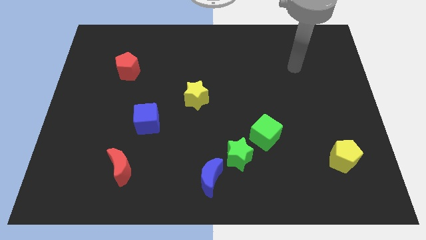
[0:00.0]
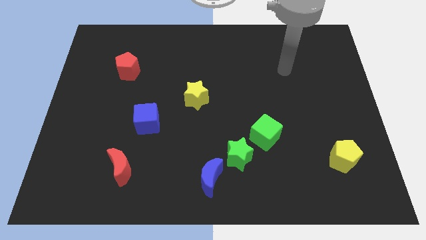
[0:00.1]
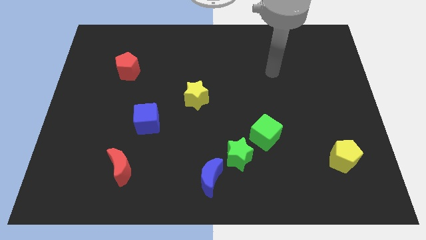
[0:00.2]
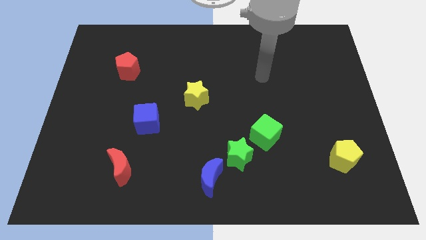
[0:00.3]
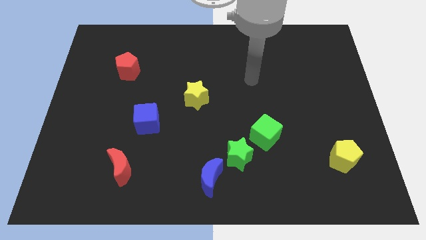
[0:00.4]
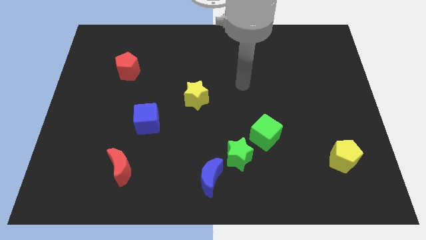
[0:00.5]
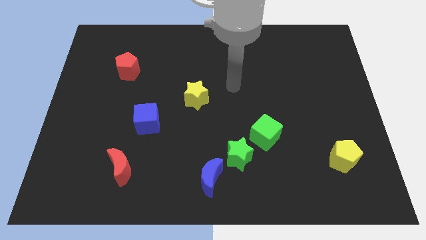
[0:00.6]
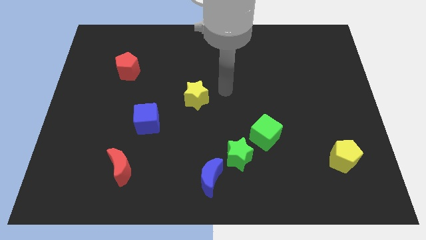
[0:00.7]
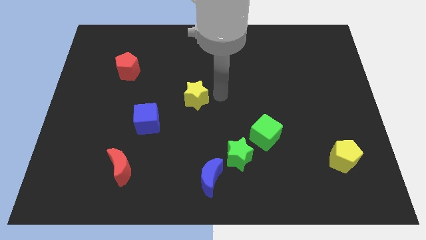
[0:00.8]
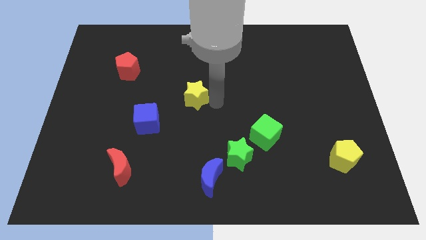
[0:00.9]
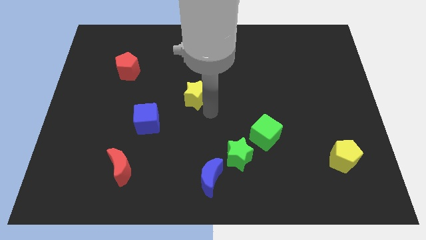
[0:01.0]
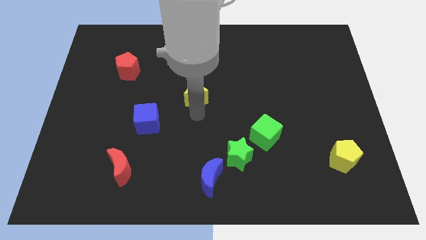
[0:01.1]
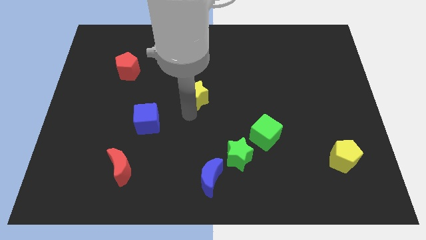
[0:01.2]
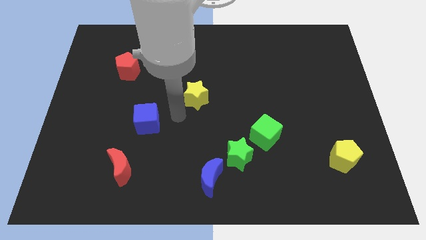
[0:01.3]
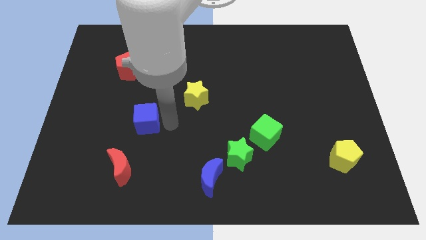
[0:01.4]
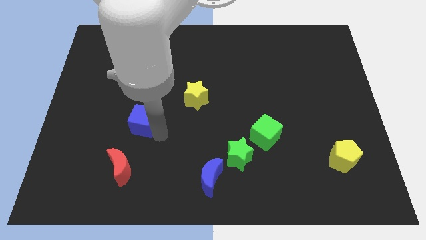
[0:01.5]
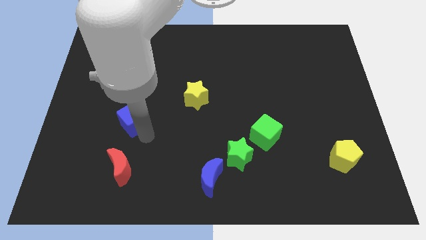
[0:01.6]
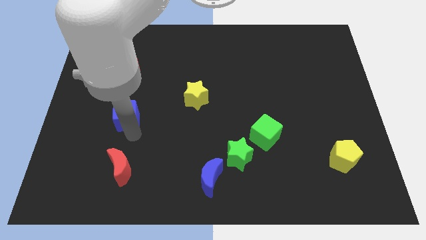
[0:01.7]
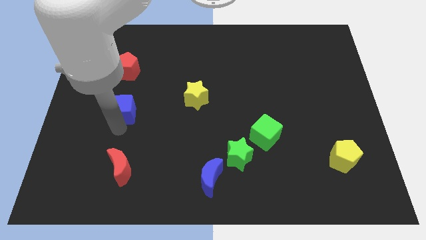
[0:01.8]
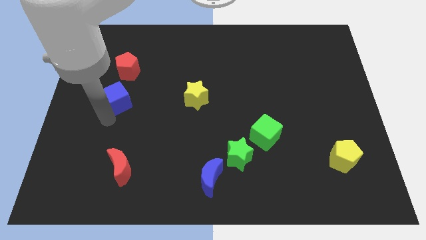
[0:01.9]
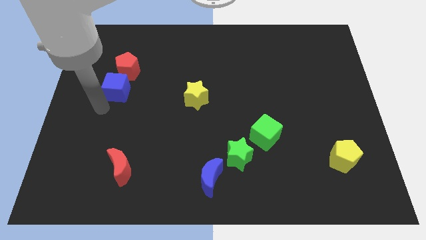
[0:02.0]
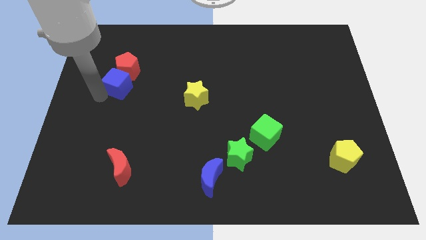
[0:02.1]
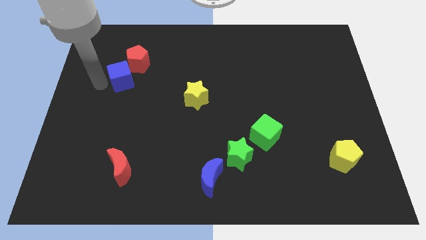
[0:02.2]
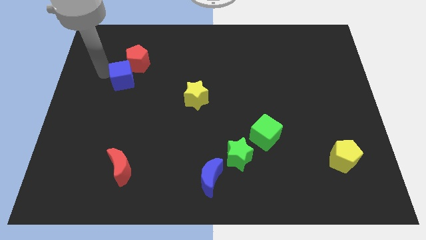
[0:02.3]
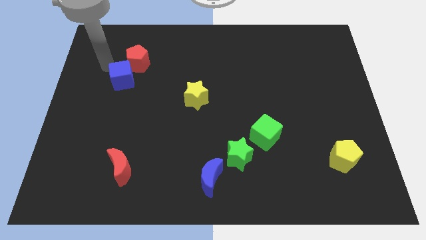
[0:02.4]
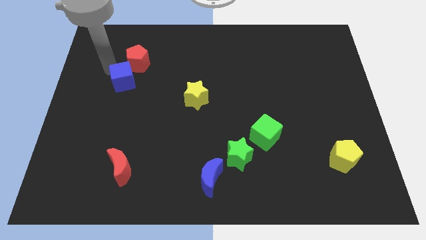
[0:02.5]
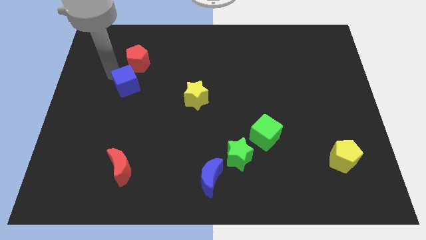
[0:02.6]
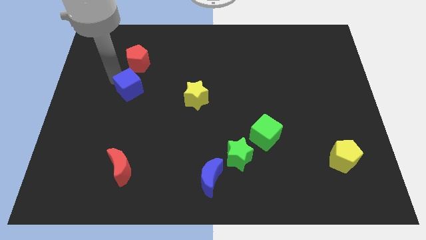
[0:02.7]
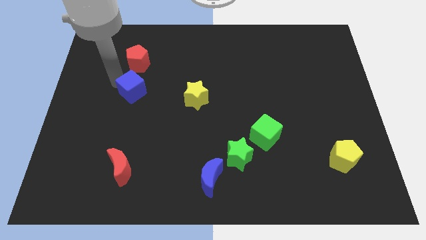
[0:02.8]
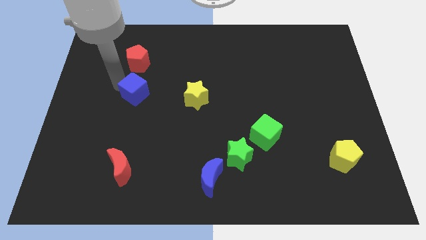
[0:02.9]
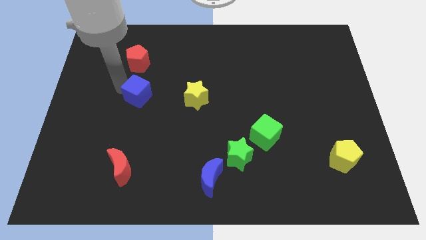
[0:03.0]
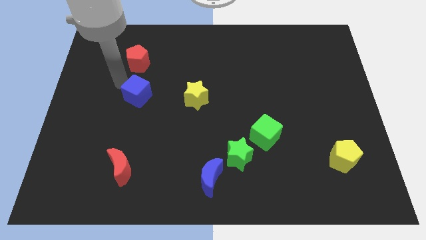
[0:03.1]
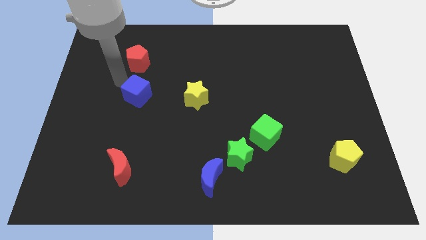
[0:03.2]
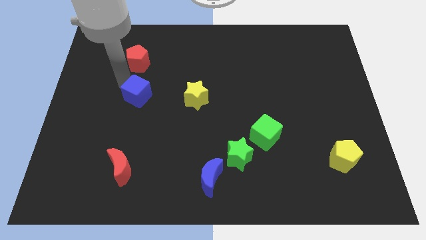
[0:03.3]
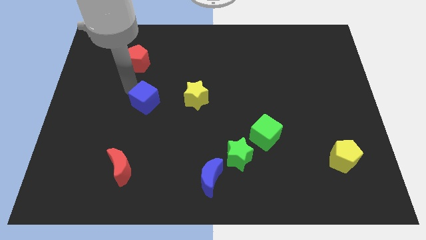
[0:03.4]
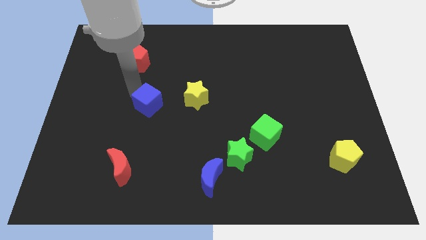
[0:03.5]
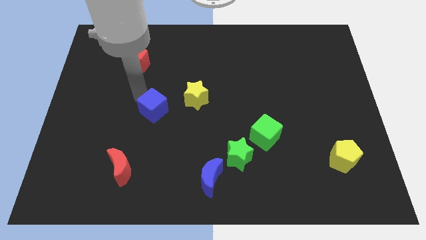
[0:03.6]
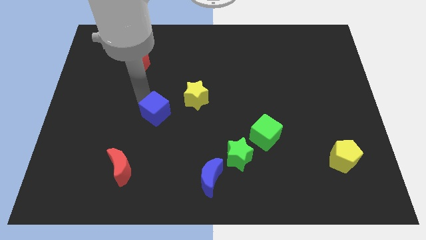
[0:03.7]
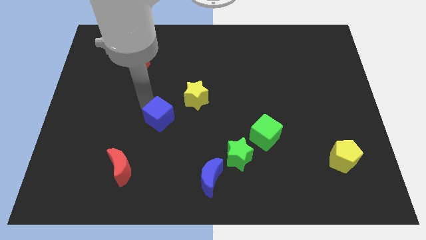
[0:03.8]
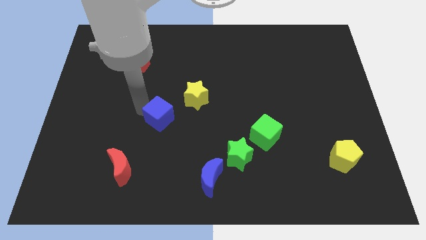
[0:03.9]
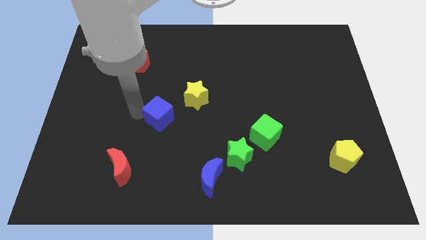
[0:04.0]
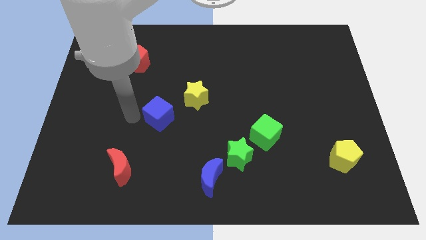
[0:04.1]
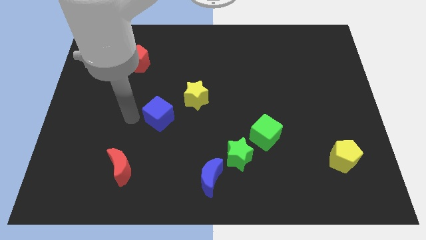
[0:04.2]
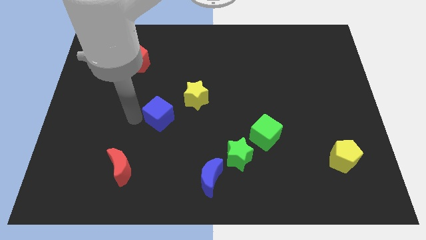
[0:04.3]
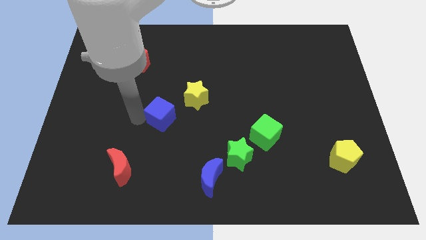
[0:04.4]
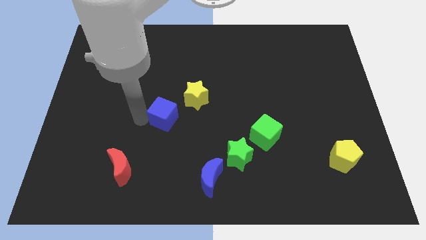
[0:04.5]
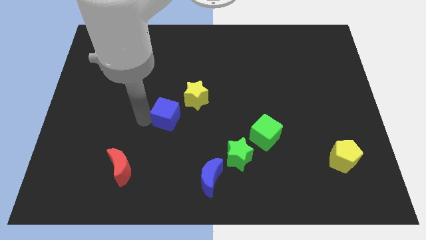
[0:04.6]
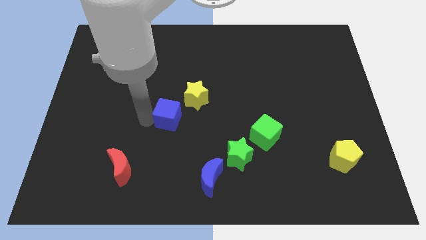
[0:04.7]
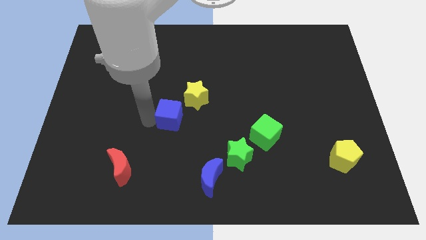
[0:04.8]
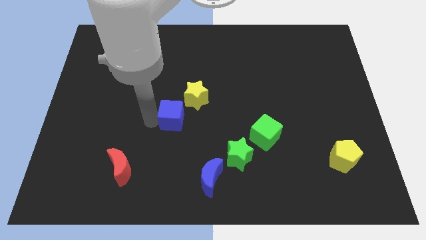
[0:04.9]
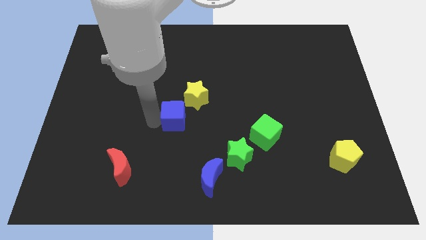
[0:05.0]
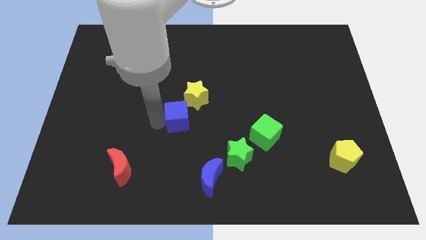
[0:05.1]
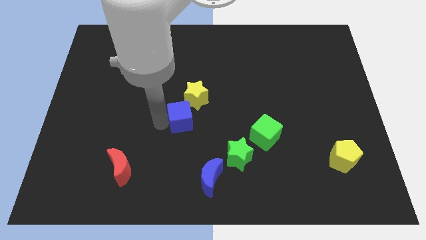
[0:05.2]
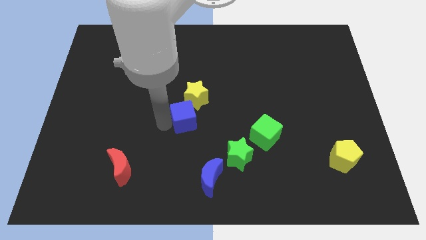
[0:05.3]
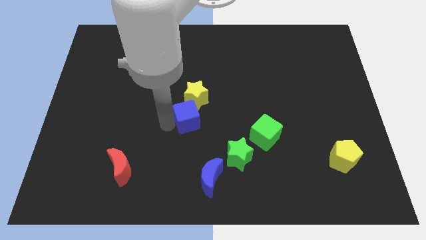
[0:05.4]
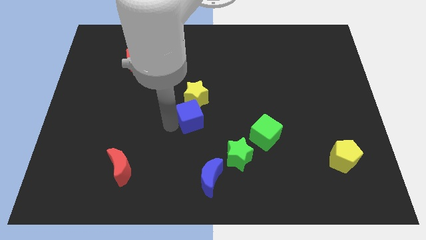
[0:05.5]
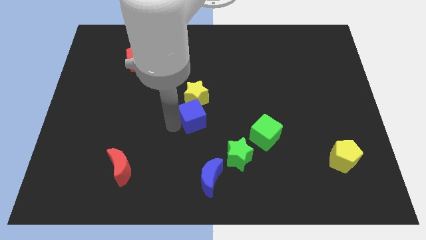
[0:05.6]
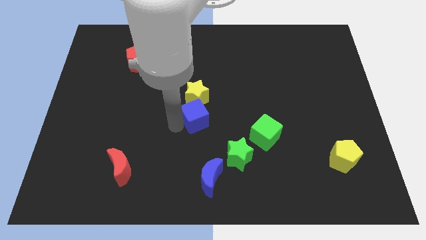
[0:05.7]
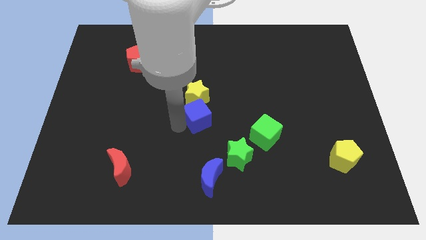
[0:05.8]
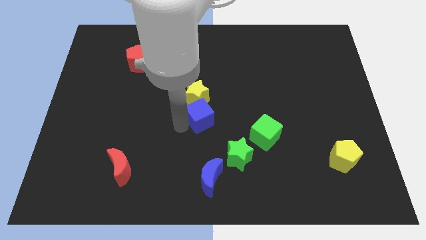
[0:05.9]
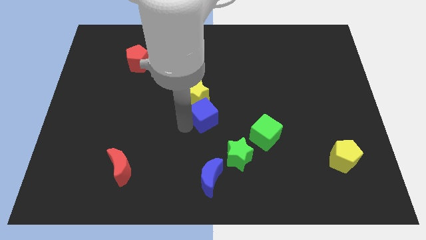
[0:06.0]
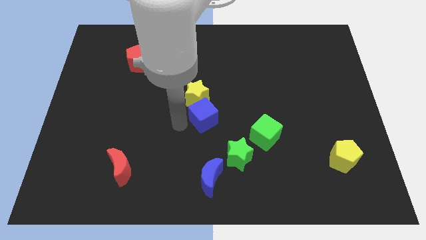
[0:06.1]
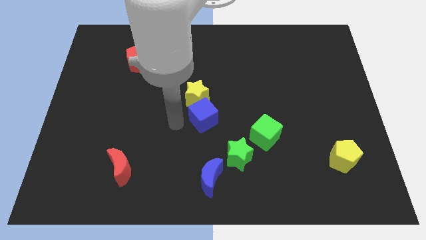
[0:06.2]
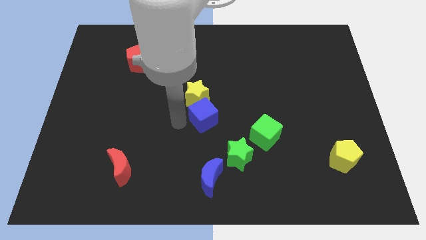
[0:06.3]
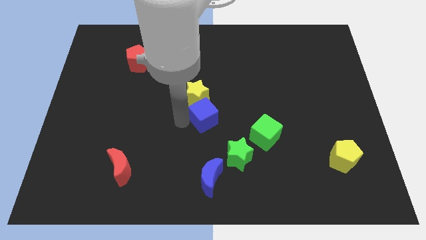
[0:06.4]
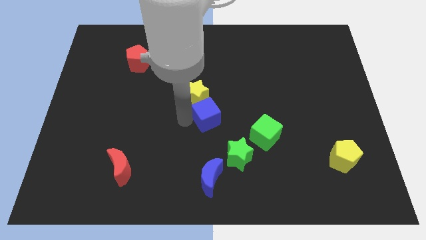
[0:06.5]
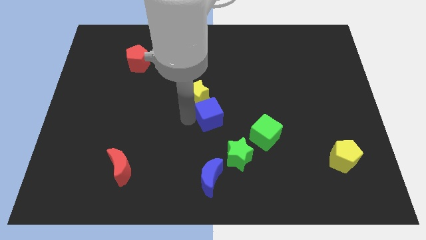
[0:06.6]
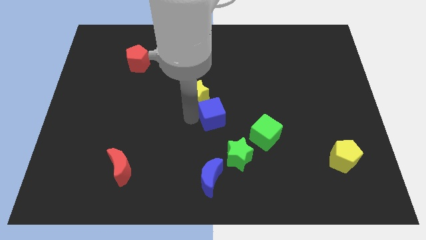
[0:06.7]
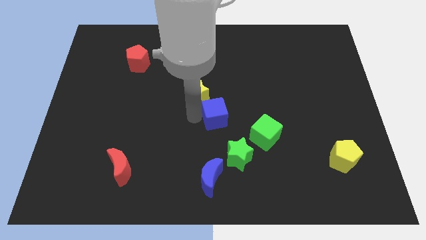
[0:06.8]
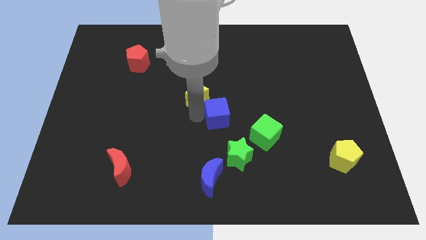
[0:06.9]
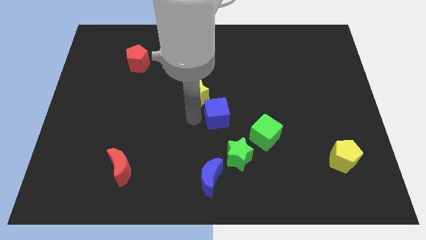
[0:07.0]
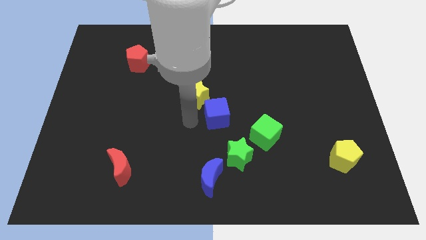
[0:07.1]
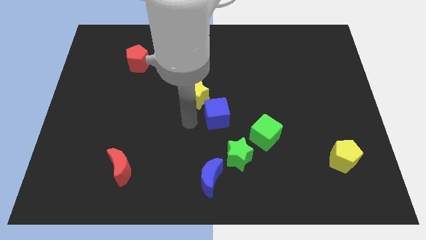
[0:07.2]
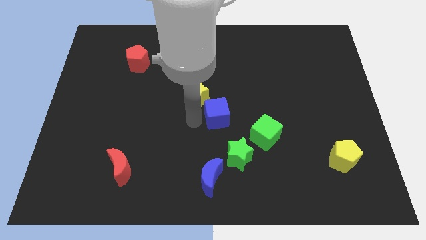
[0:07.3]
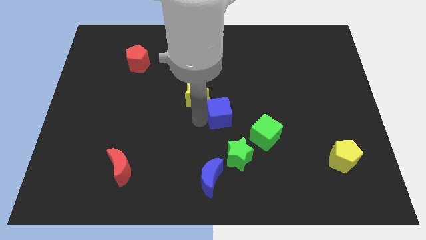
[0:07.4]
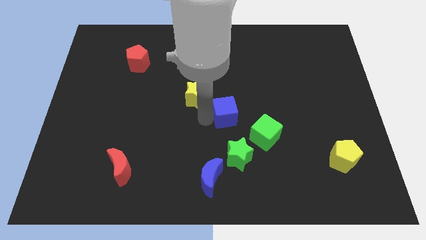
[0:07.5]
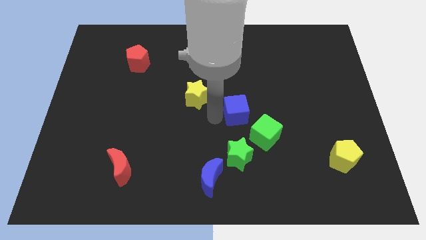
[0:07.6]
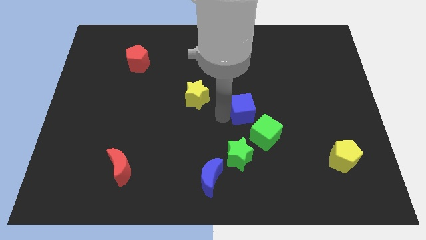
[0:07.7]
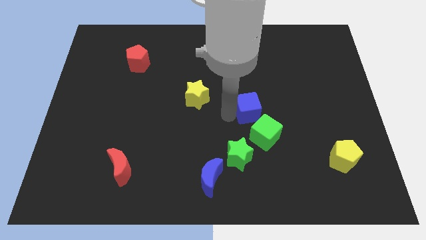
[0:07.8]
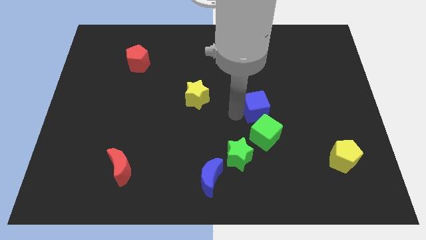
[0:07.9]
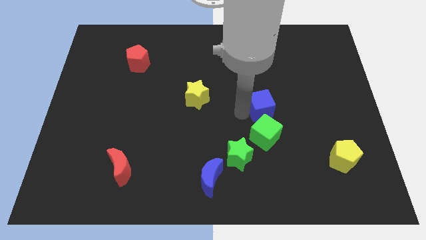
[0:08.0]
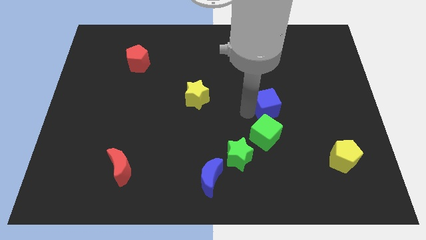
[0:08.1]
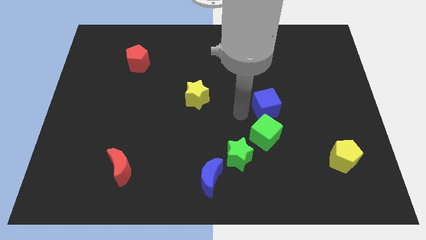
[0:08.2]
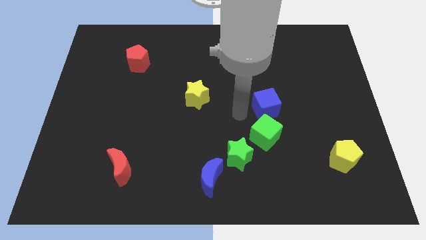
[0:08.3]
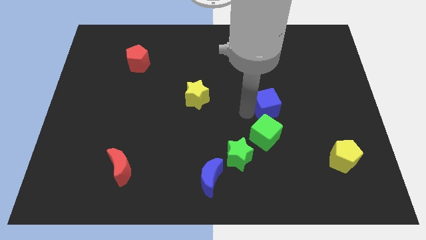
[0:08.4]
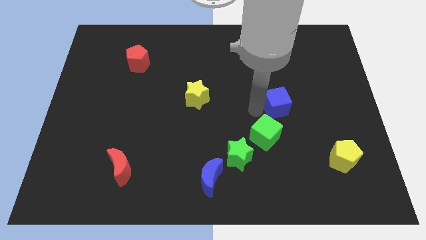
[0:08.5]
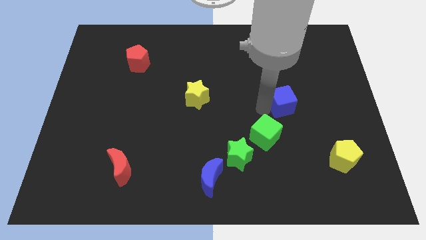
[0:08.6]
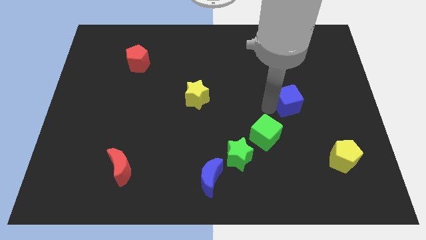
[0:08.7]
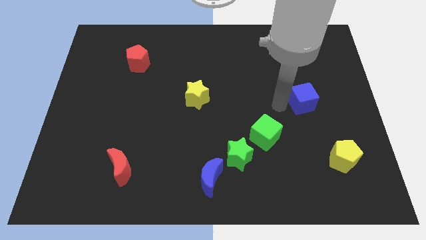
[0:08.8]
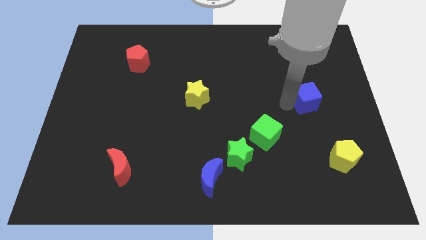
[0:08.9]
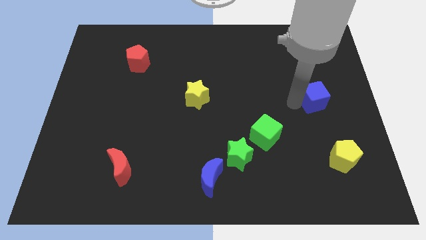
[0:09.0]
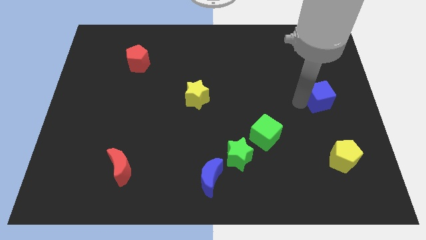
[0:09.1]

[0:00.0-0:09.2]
push the blue cube to the center right
